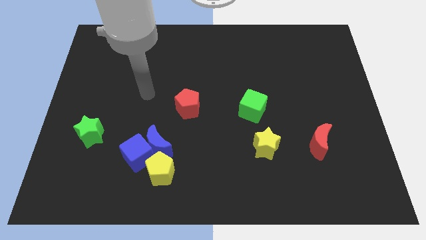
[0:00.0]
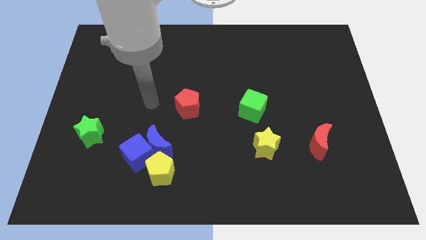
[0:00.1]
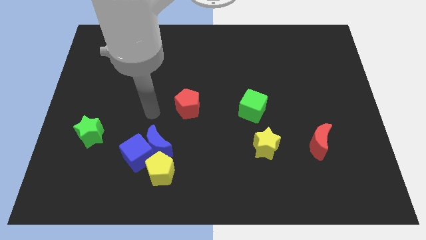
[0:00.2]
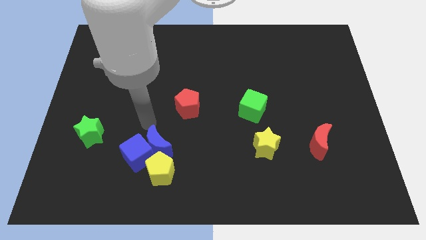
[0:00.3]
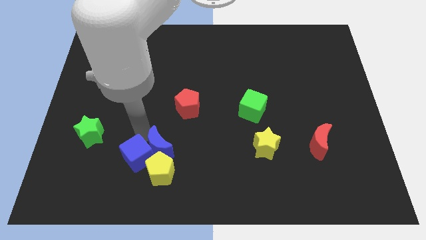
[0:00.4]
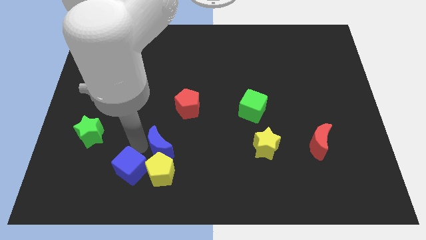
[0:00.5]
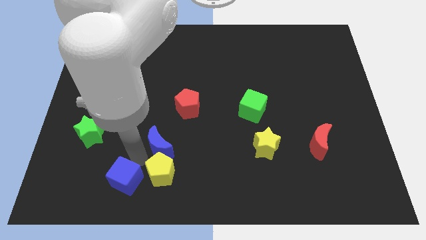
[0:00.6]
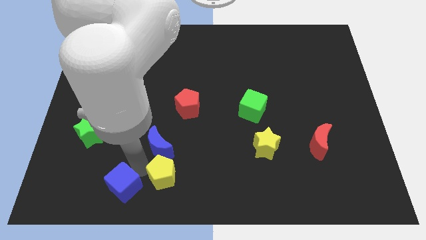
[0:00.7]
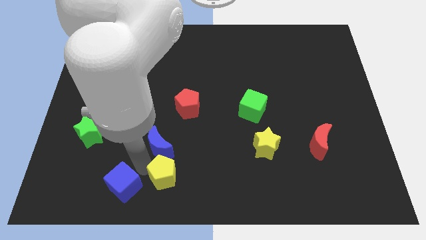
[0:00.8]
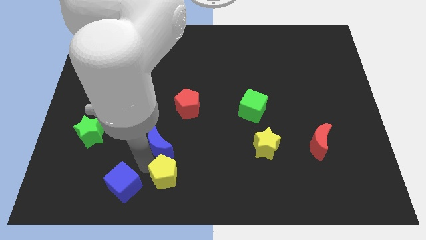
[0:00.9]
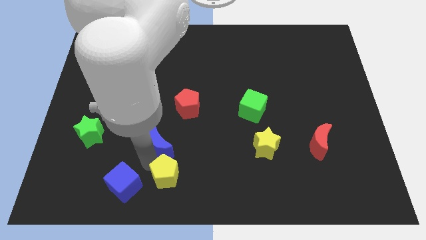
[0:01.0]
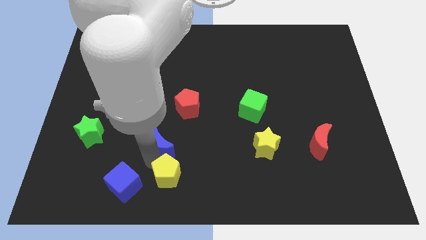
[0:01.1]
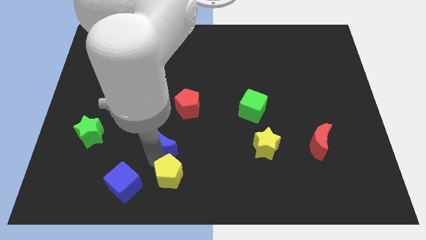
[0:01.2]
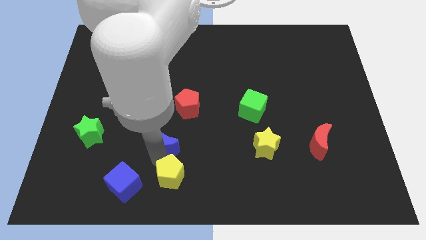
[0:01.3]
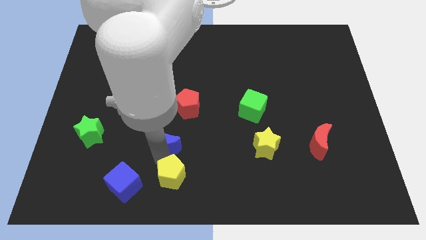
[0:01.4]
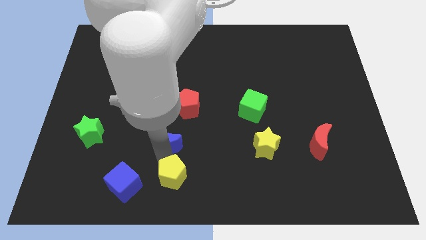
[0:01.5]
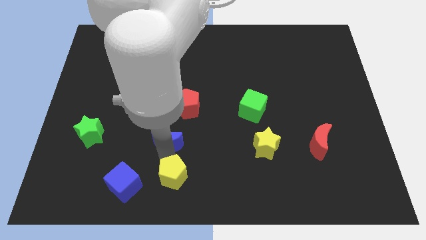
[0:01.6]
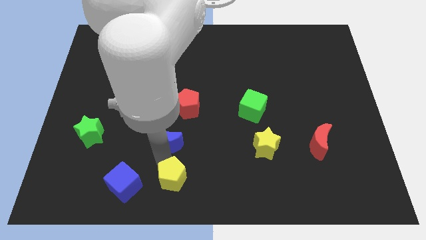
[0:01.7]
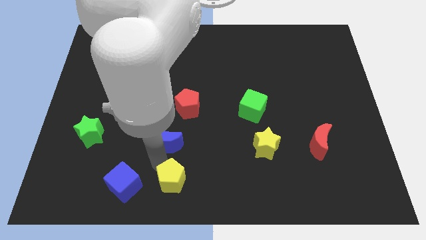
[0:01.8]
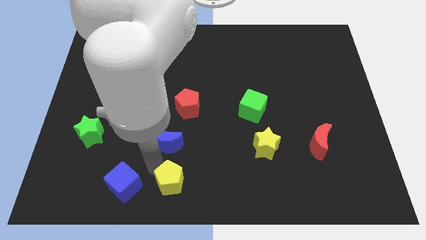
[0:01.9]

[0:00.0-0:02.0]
pull the blue moon apart from the blue cube and yellow pentagon

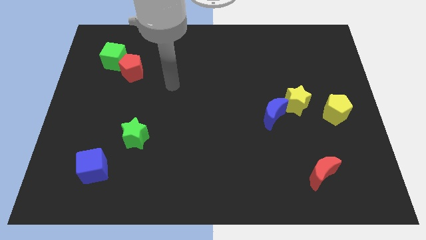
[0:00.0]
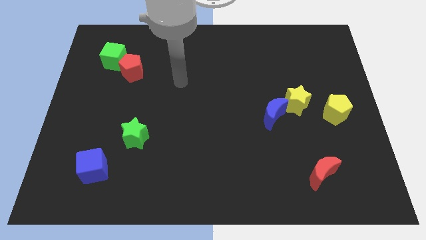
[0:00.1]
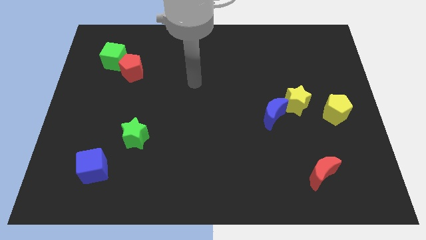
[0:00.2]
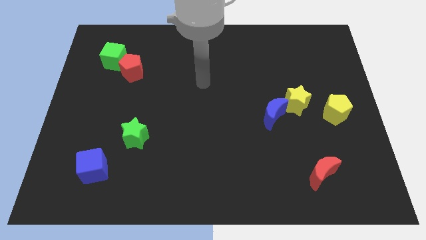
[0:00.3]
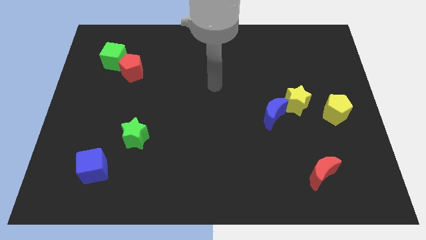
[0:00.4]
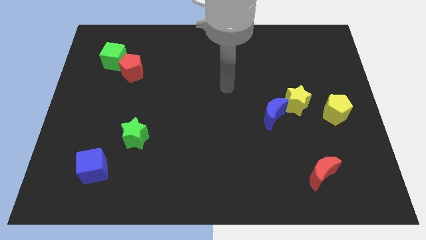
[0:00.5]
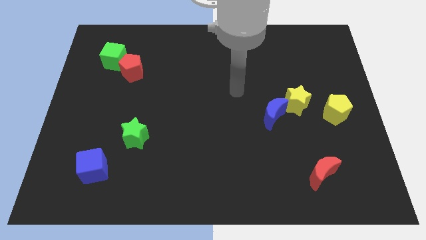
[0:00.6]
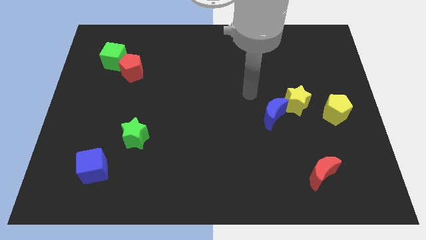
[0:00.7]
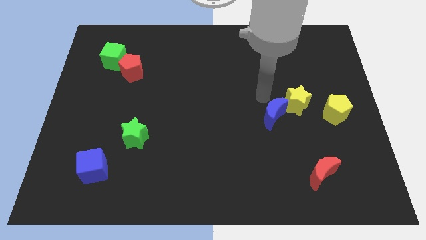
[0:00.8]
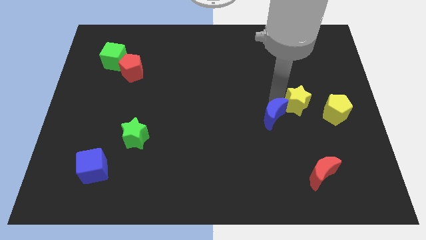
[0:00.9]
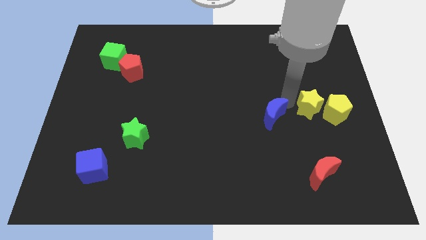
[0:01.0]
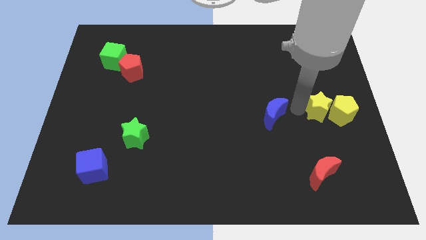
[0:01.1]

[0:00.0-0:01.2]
pull the blue moon apart from the yellow star

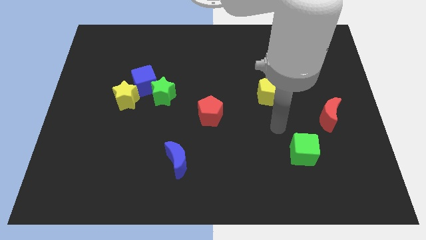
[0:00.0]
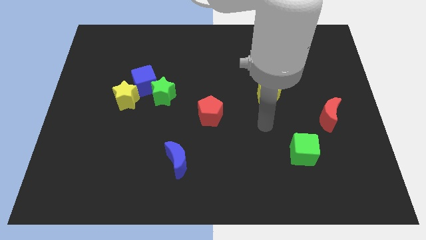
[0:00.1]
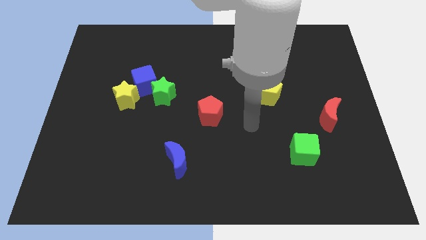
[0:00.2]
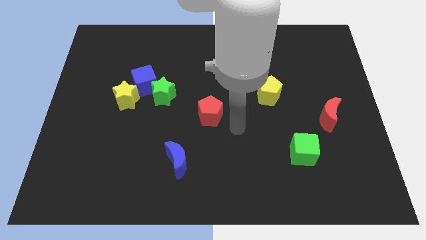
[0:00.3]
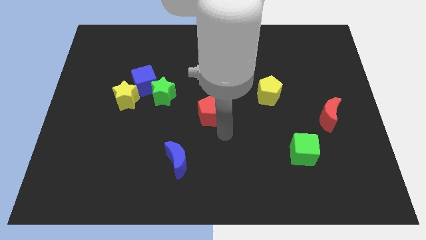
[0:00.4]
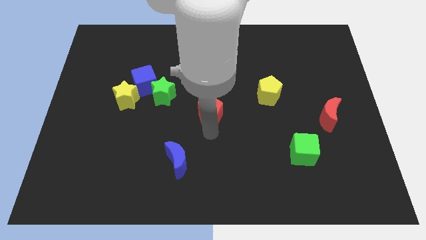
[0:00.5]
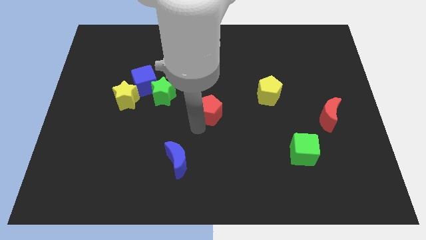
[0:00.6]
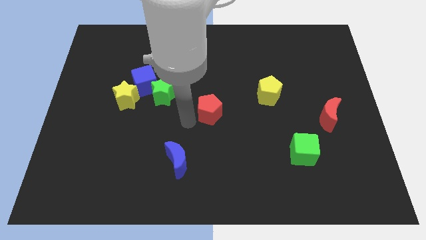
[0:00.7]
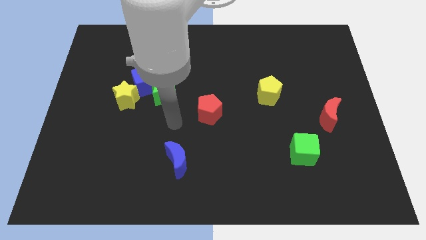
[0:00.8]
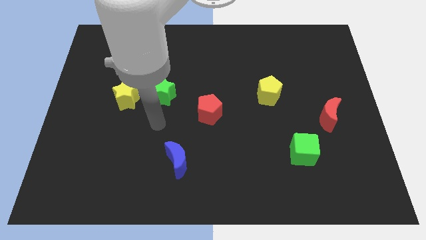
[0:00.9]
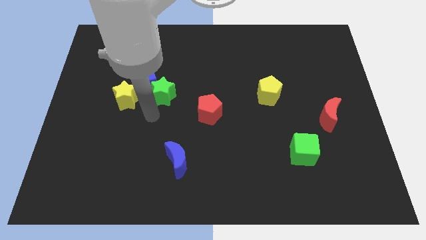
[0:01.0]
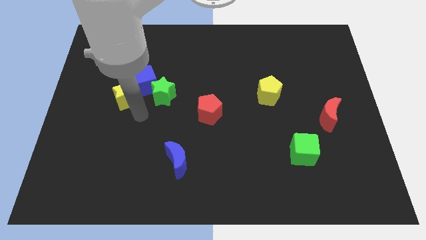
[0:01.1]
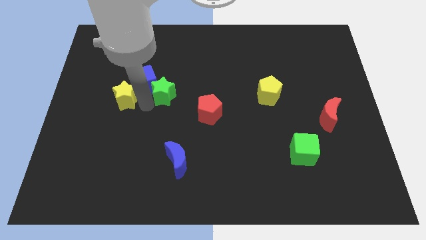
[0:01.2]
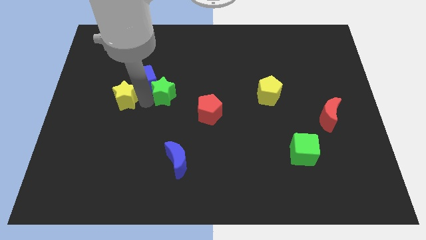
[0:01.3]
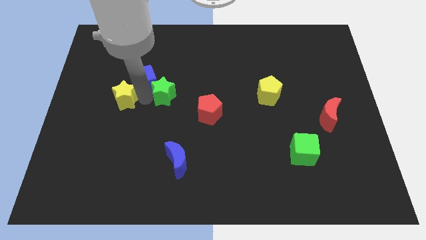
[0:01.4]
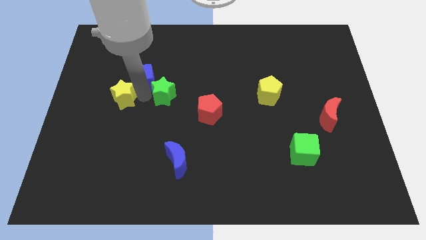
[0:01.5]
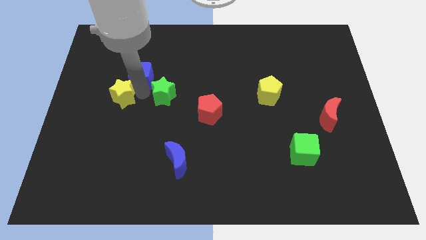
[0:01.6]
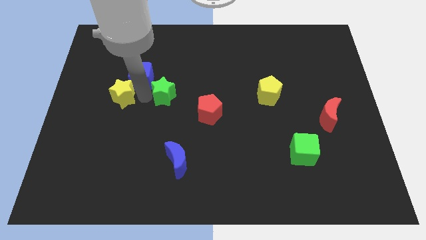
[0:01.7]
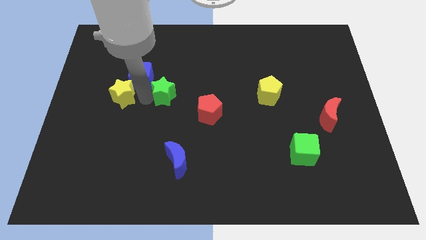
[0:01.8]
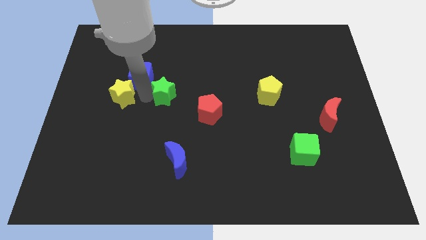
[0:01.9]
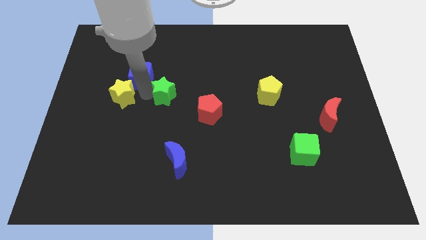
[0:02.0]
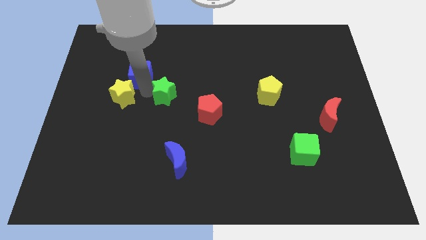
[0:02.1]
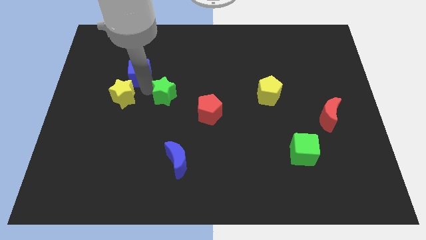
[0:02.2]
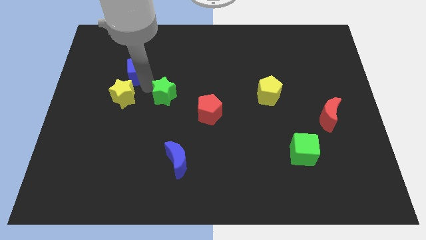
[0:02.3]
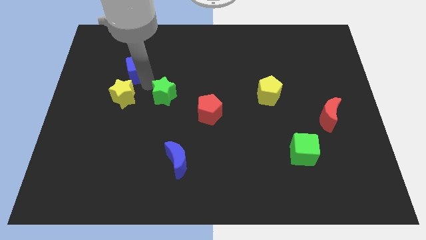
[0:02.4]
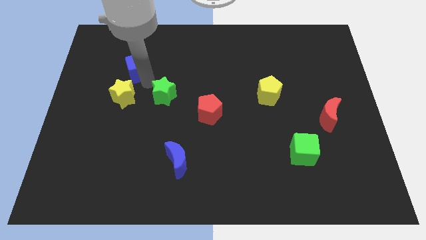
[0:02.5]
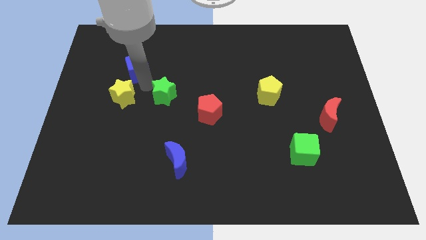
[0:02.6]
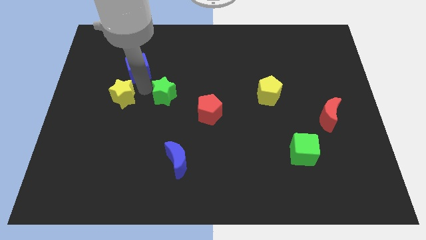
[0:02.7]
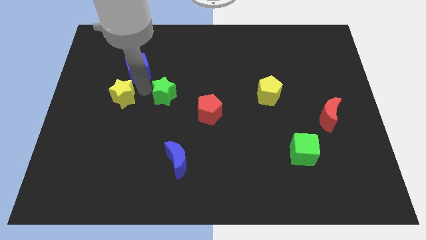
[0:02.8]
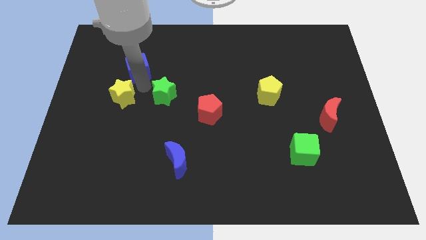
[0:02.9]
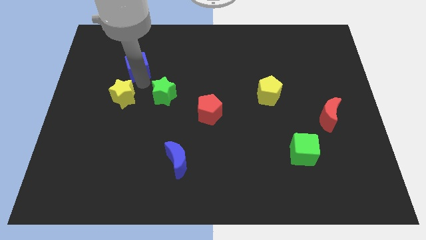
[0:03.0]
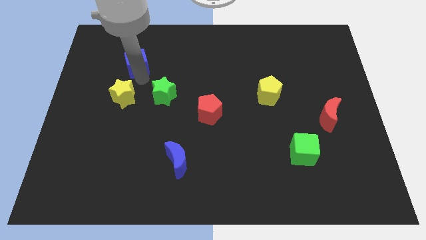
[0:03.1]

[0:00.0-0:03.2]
pull the blue cube apart from the green star and yellow star

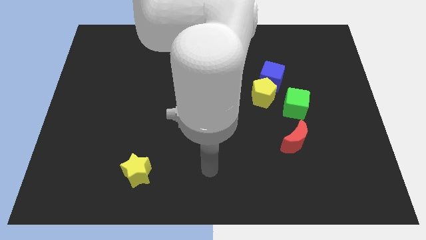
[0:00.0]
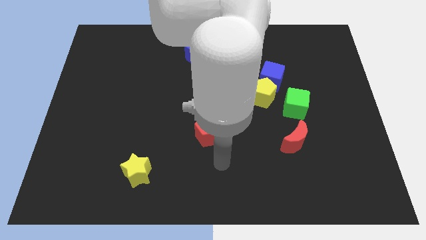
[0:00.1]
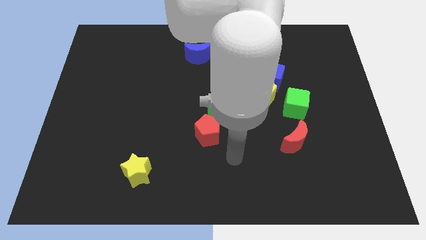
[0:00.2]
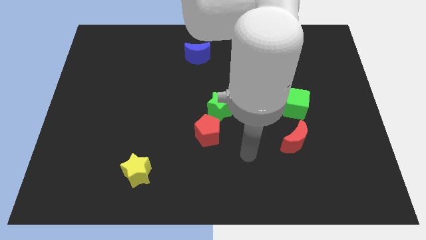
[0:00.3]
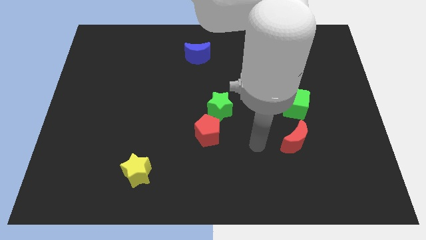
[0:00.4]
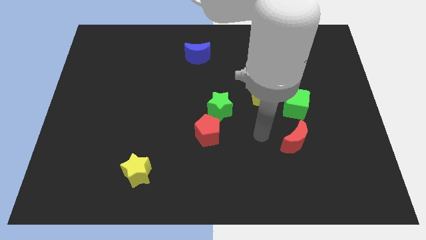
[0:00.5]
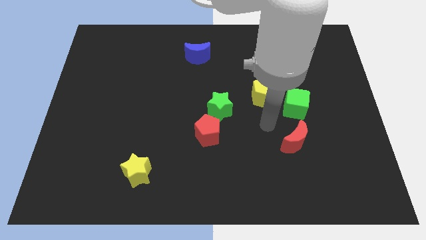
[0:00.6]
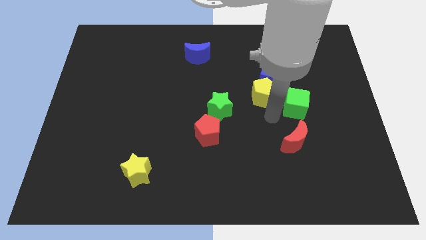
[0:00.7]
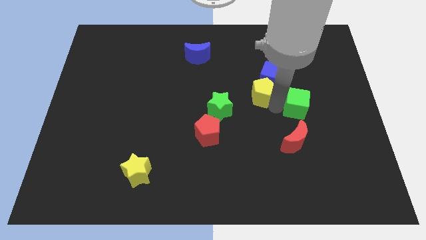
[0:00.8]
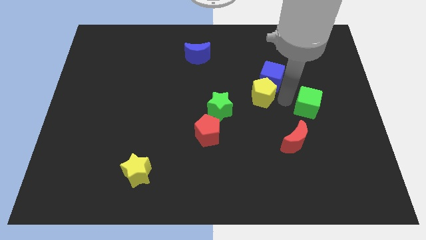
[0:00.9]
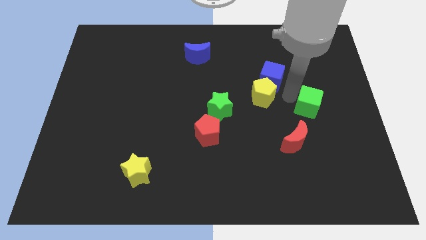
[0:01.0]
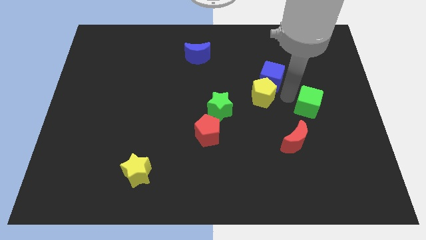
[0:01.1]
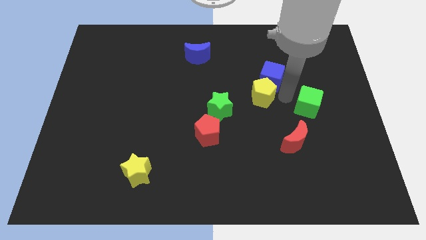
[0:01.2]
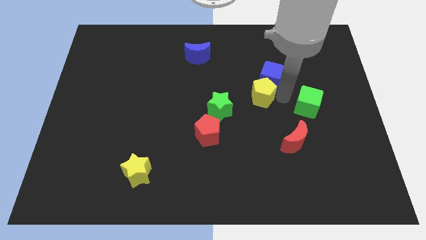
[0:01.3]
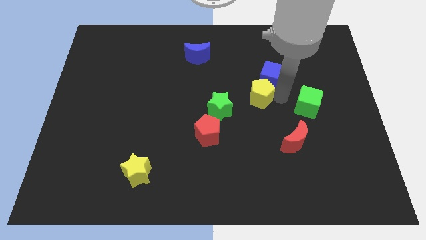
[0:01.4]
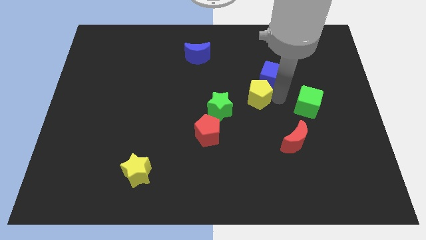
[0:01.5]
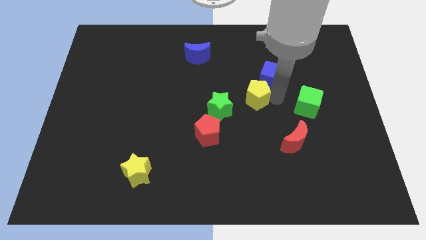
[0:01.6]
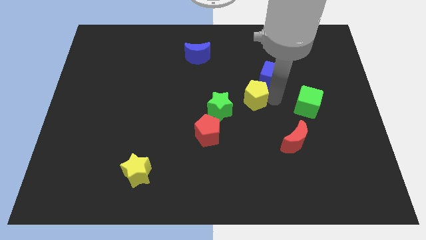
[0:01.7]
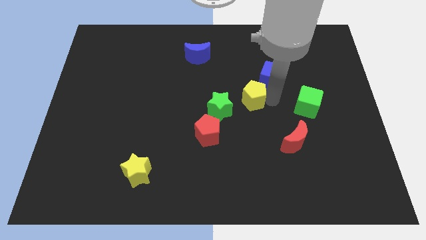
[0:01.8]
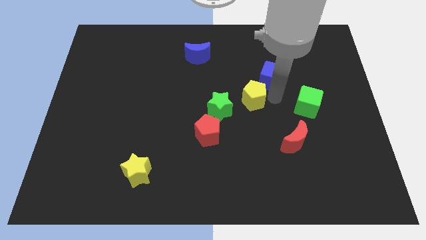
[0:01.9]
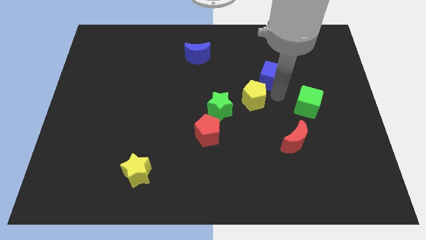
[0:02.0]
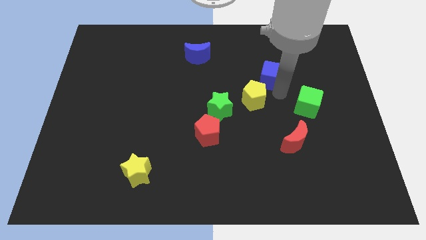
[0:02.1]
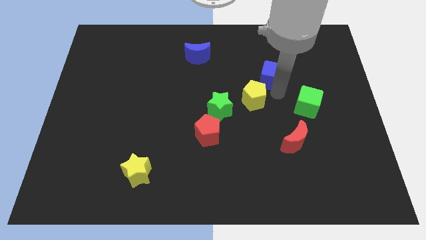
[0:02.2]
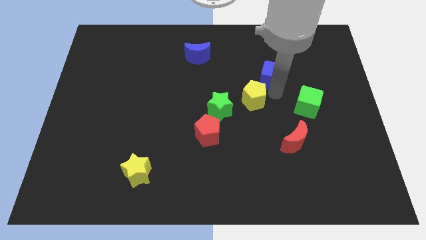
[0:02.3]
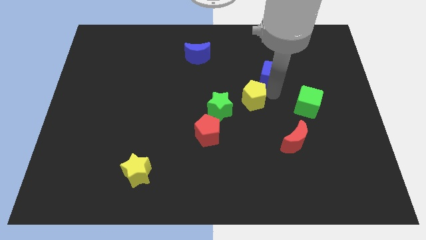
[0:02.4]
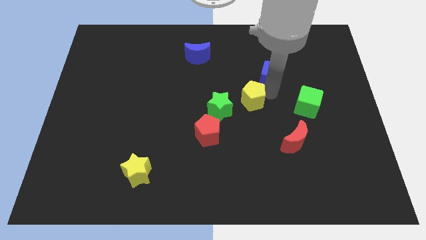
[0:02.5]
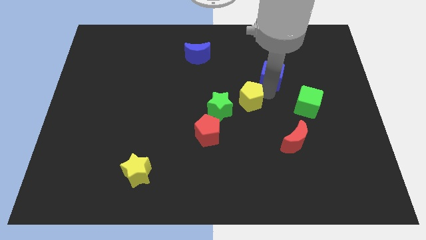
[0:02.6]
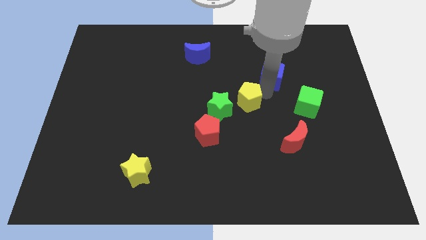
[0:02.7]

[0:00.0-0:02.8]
move the yellow pentagon away from the blue cube and green cube
